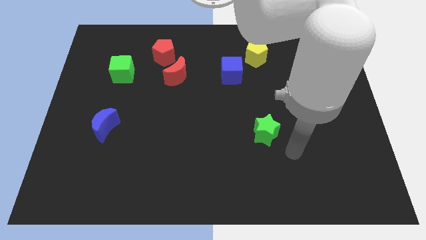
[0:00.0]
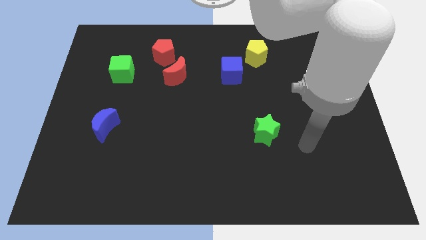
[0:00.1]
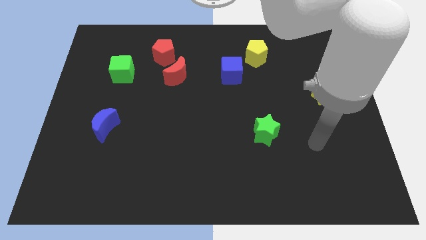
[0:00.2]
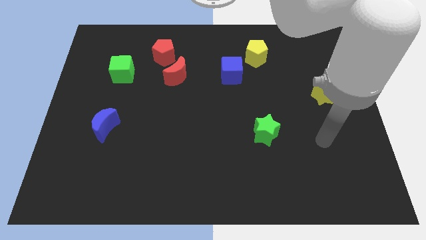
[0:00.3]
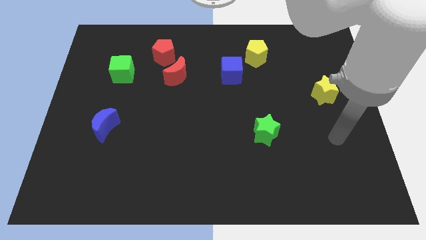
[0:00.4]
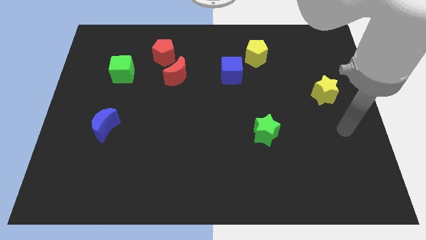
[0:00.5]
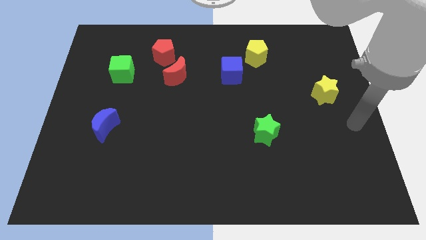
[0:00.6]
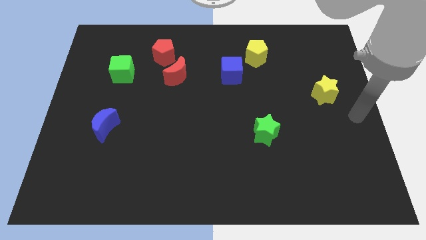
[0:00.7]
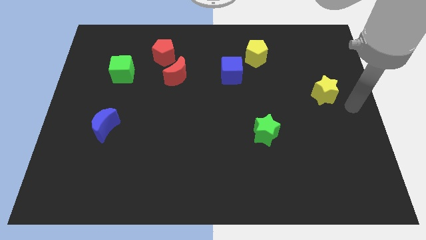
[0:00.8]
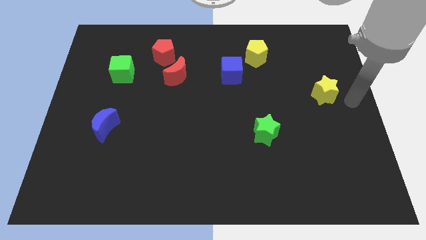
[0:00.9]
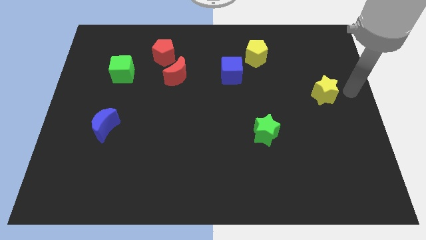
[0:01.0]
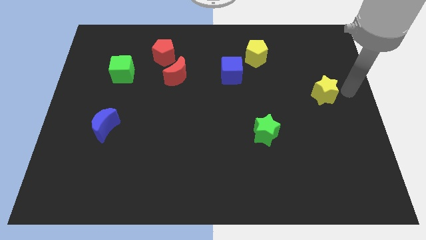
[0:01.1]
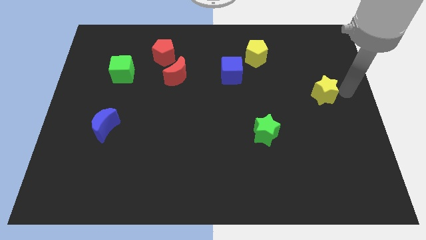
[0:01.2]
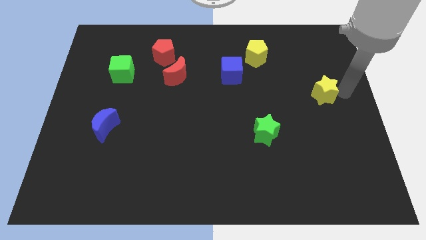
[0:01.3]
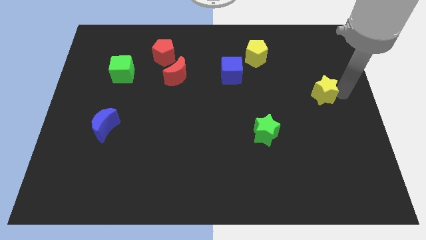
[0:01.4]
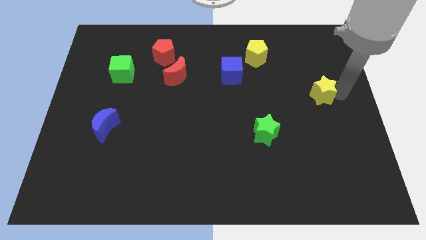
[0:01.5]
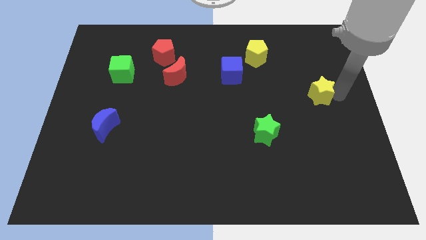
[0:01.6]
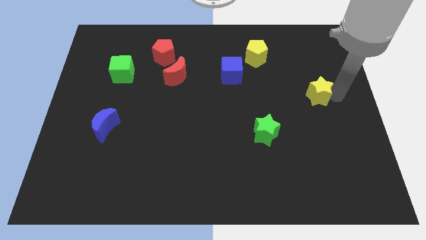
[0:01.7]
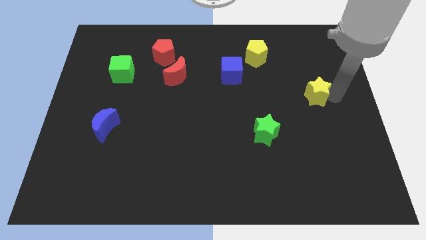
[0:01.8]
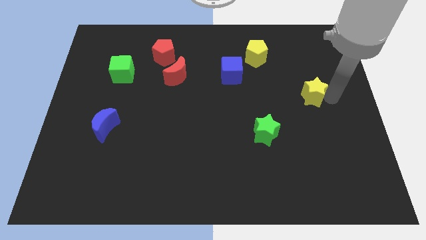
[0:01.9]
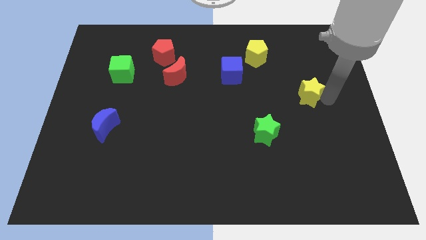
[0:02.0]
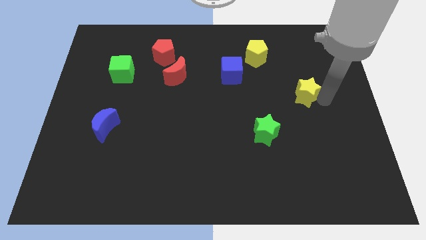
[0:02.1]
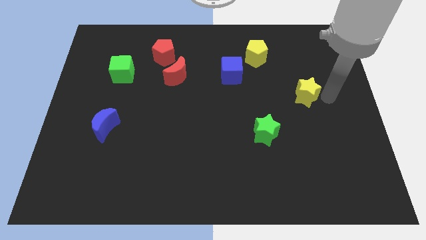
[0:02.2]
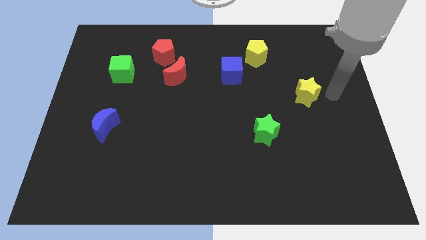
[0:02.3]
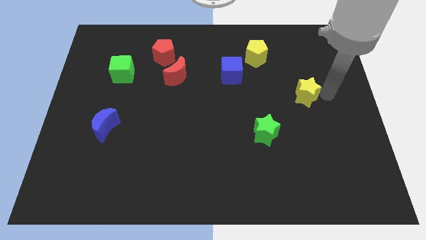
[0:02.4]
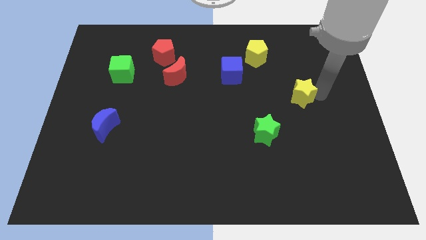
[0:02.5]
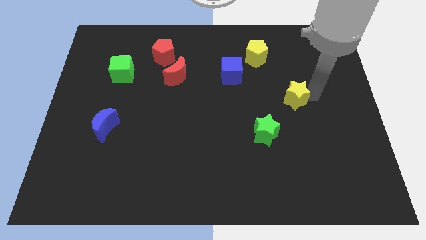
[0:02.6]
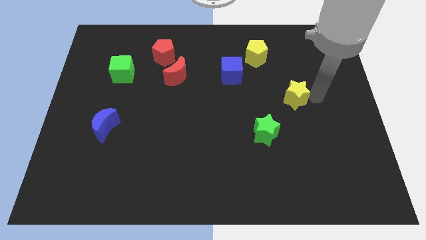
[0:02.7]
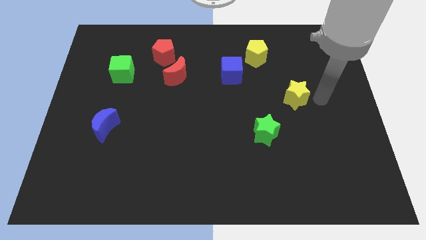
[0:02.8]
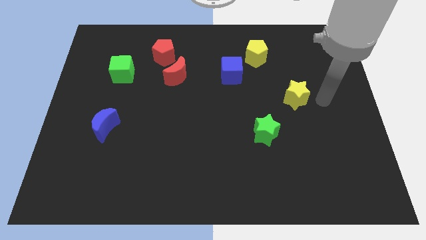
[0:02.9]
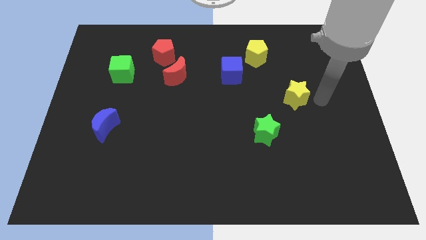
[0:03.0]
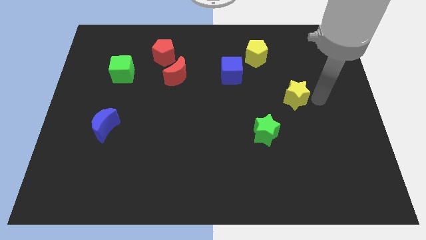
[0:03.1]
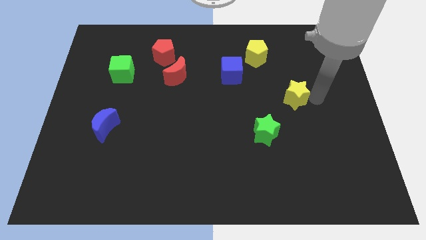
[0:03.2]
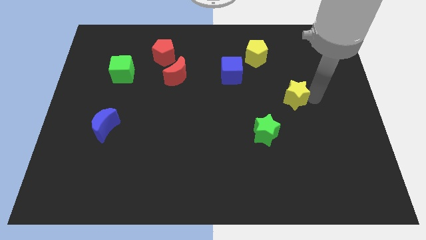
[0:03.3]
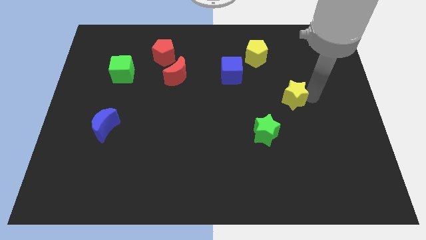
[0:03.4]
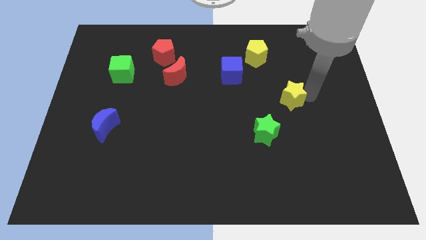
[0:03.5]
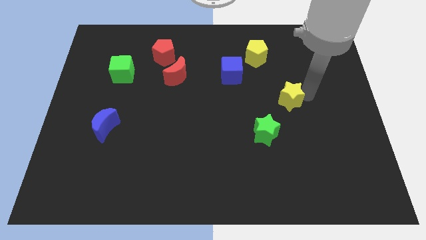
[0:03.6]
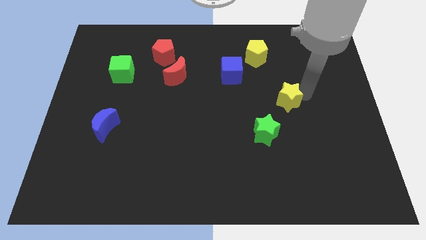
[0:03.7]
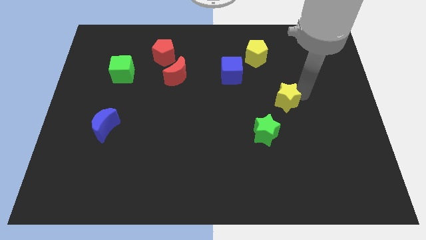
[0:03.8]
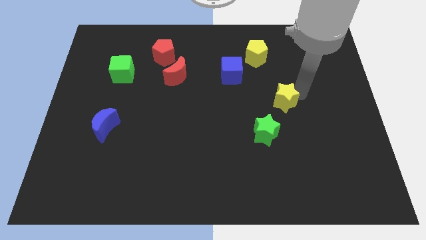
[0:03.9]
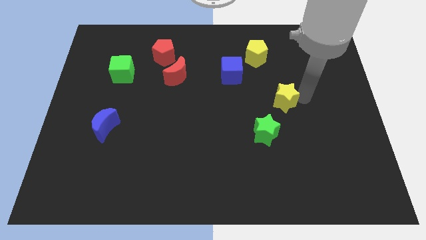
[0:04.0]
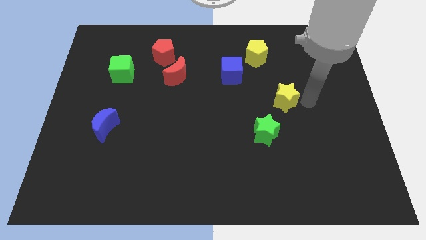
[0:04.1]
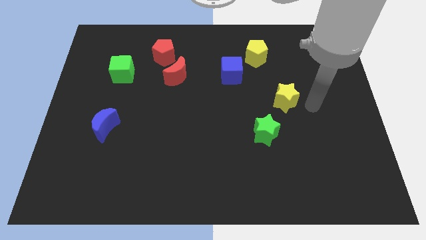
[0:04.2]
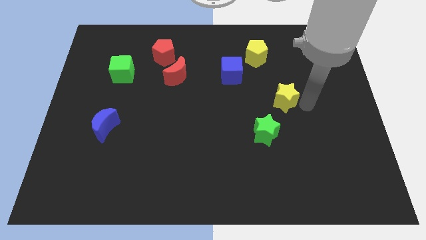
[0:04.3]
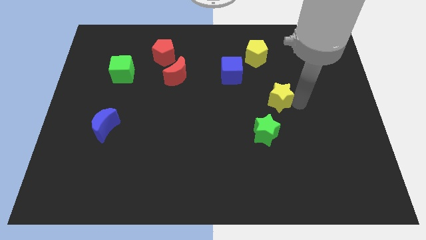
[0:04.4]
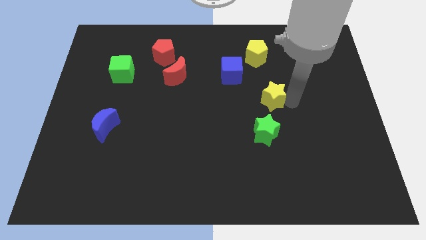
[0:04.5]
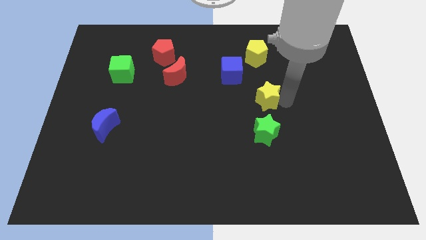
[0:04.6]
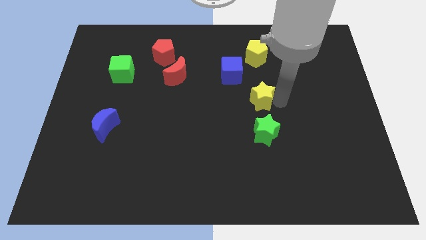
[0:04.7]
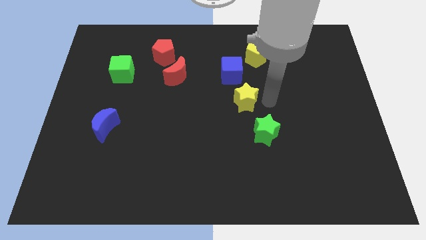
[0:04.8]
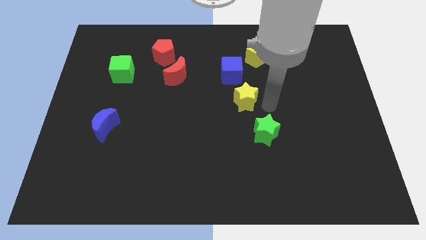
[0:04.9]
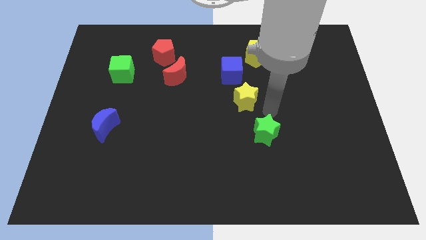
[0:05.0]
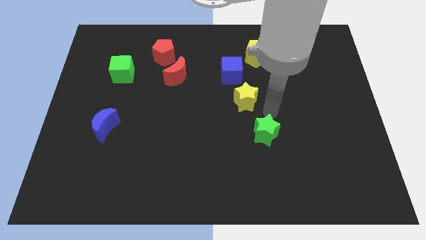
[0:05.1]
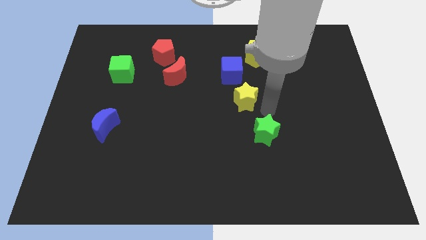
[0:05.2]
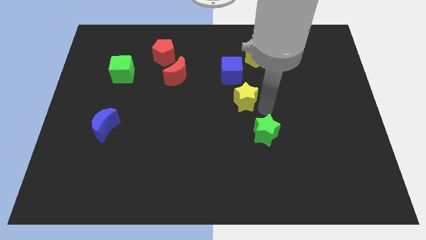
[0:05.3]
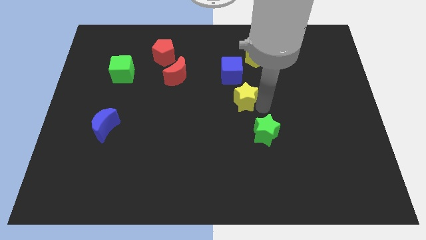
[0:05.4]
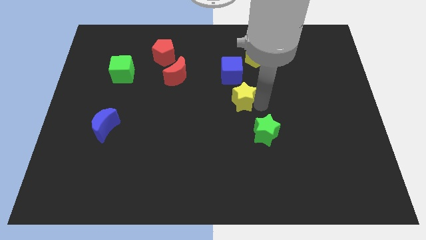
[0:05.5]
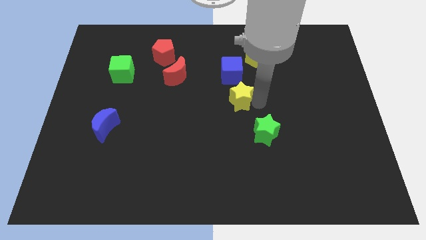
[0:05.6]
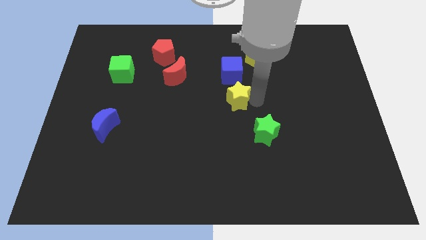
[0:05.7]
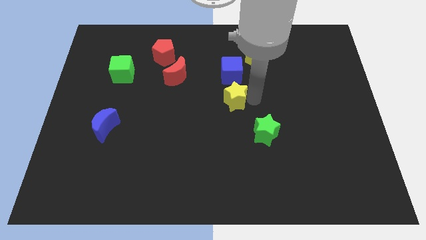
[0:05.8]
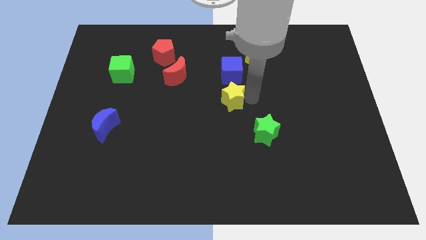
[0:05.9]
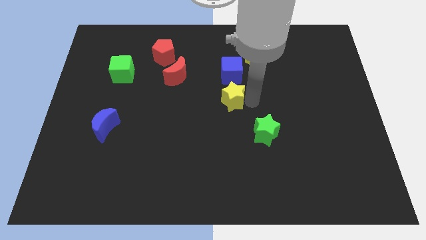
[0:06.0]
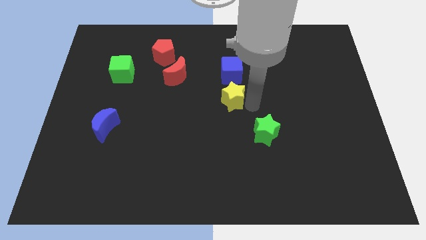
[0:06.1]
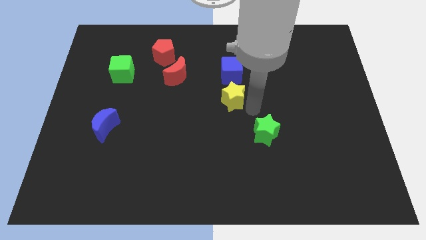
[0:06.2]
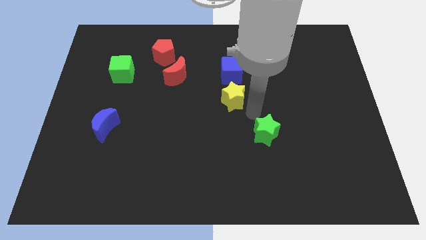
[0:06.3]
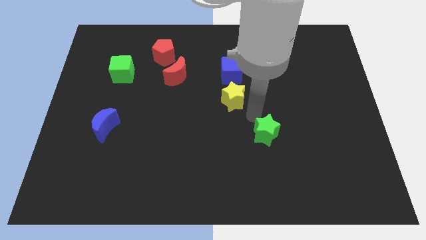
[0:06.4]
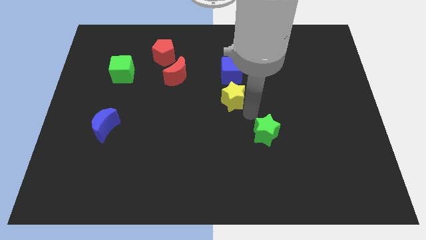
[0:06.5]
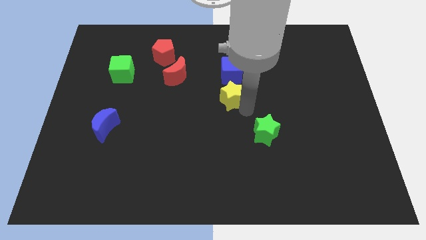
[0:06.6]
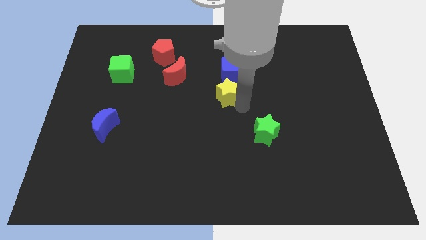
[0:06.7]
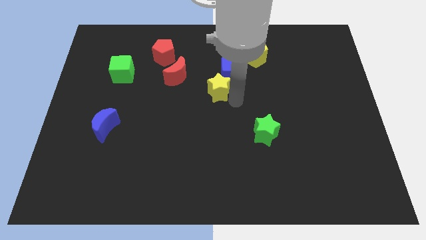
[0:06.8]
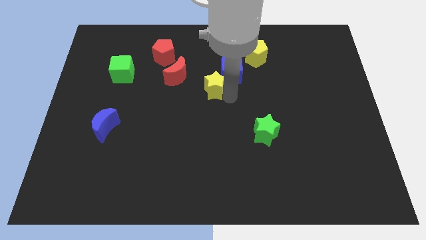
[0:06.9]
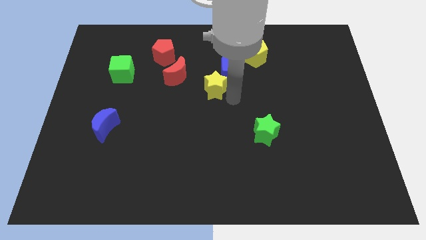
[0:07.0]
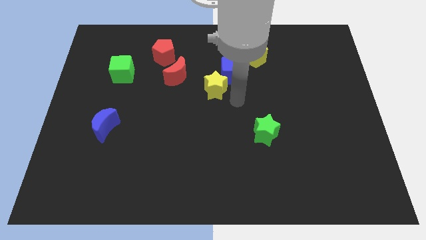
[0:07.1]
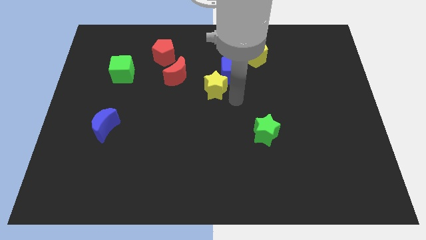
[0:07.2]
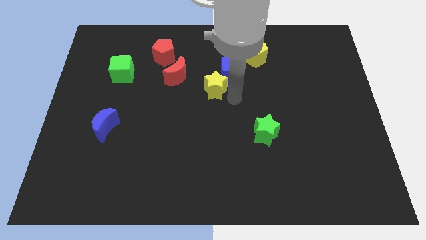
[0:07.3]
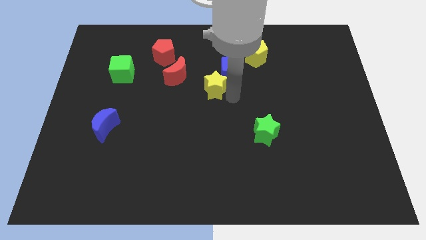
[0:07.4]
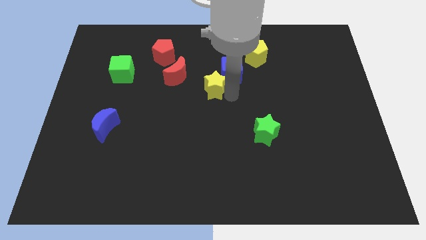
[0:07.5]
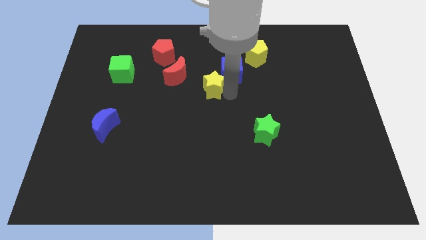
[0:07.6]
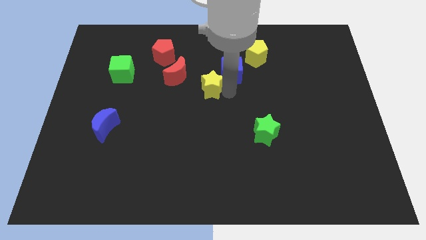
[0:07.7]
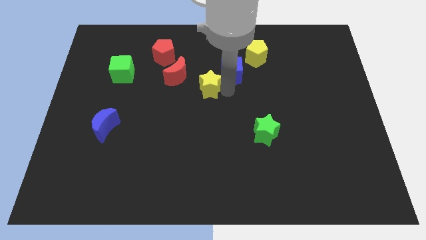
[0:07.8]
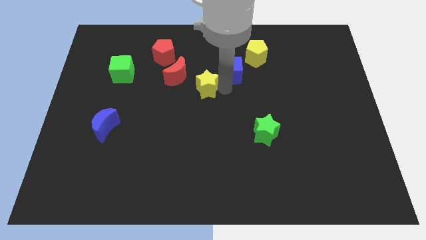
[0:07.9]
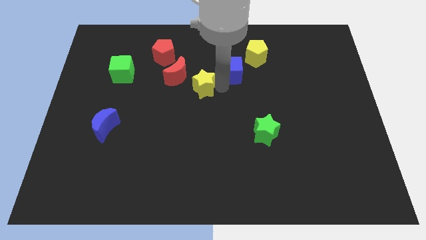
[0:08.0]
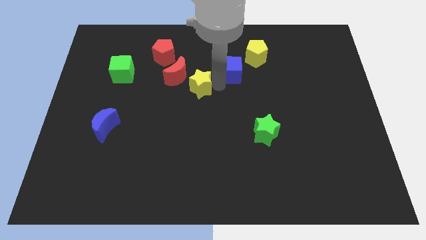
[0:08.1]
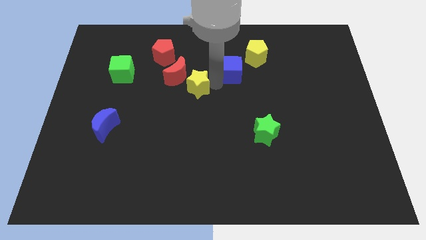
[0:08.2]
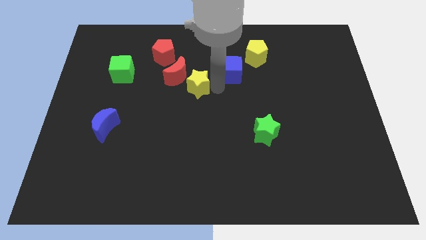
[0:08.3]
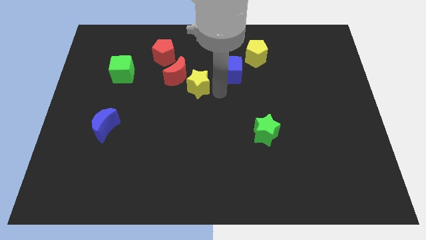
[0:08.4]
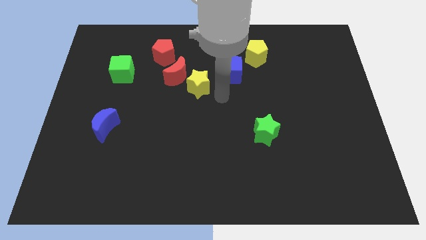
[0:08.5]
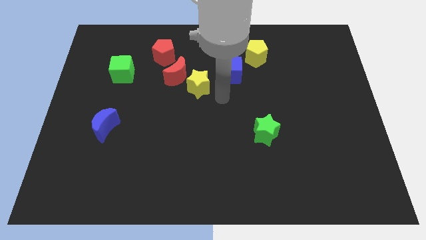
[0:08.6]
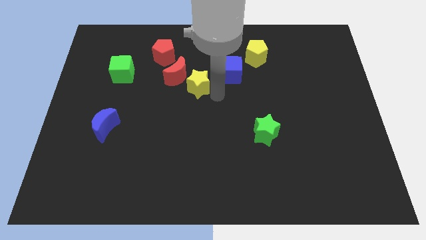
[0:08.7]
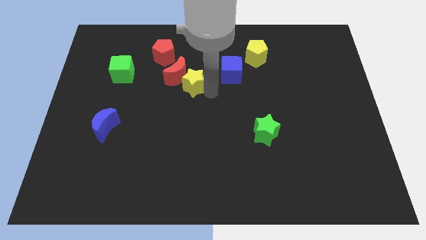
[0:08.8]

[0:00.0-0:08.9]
put the yellow star close to the red moon
